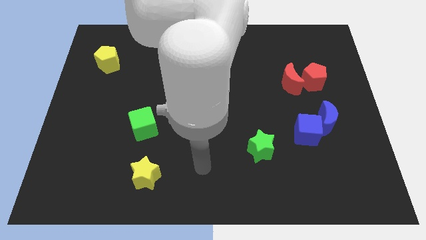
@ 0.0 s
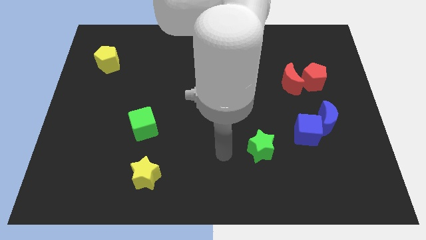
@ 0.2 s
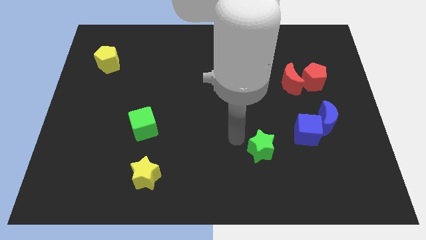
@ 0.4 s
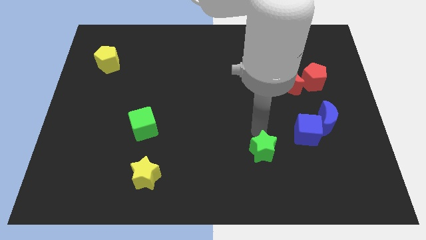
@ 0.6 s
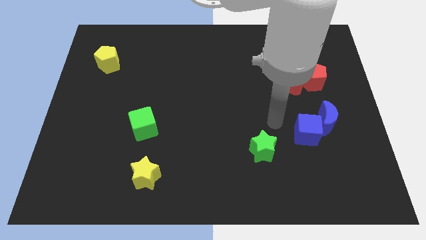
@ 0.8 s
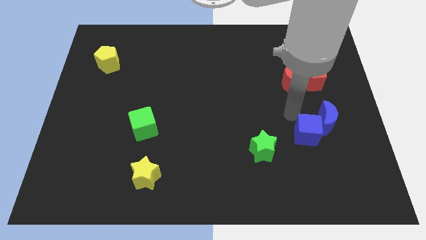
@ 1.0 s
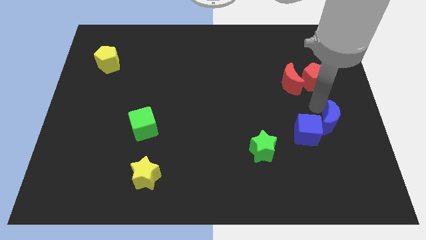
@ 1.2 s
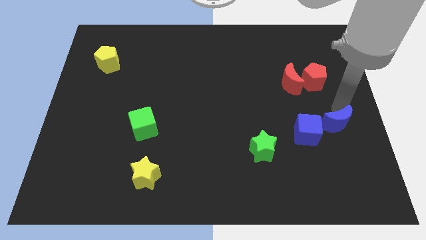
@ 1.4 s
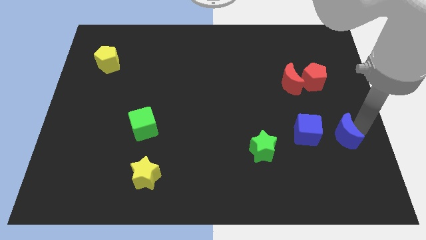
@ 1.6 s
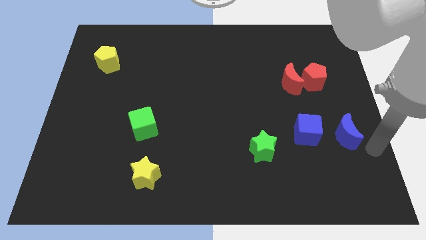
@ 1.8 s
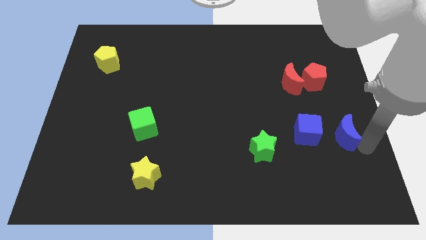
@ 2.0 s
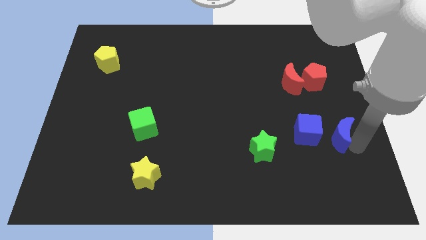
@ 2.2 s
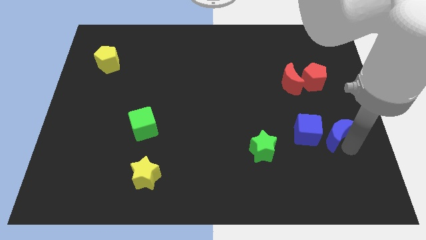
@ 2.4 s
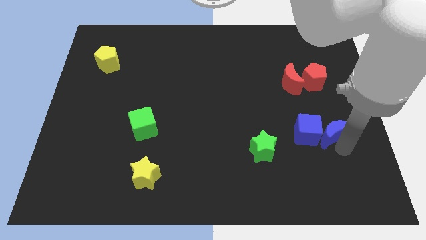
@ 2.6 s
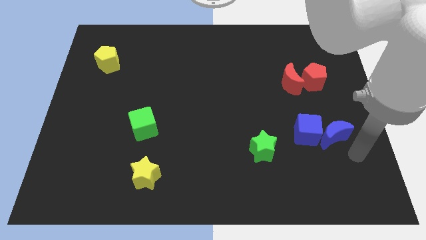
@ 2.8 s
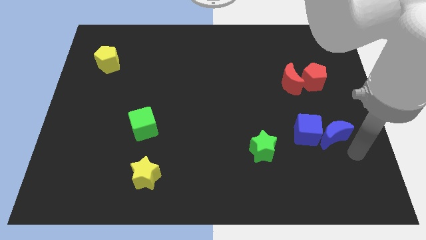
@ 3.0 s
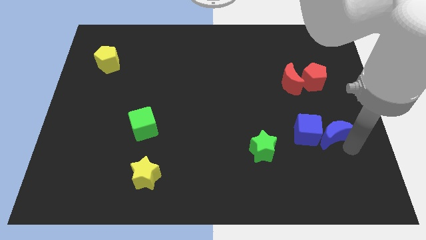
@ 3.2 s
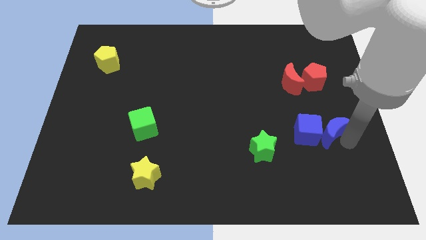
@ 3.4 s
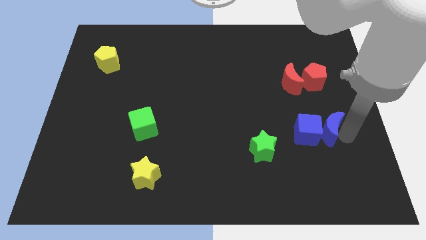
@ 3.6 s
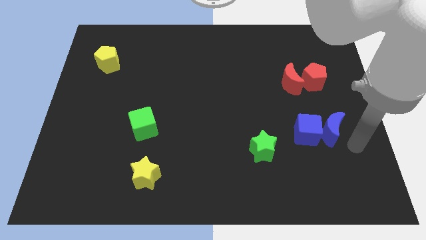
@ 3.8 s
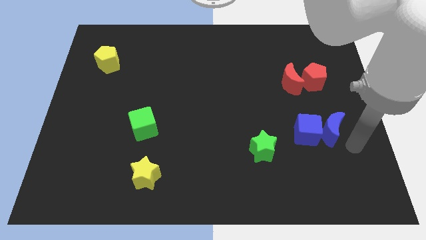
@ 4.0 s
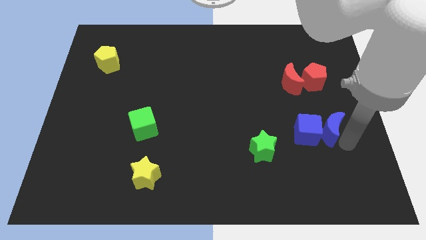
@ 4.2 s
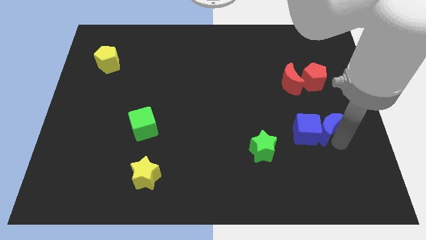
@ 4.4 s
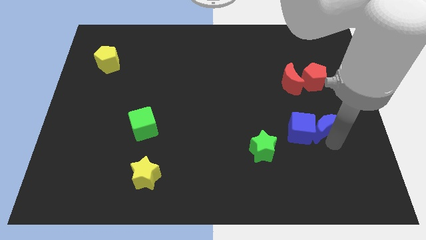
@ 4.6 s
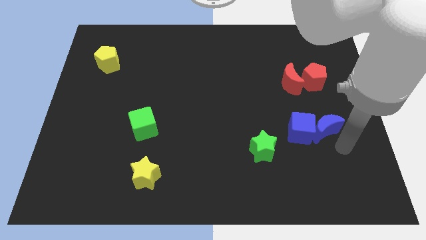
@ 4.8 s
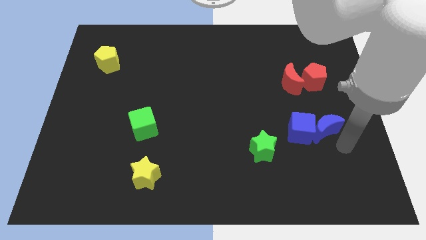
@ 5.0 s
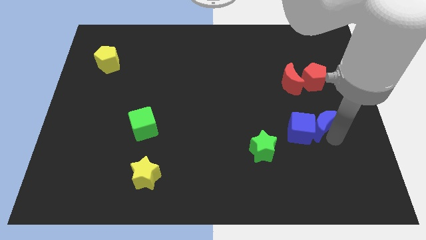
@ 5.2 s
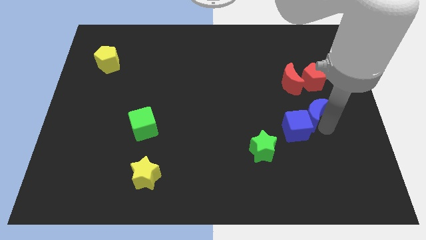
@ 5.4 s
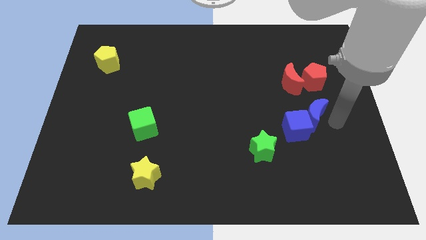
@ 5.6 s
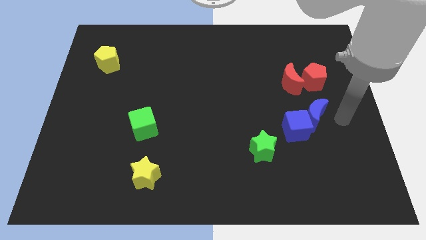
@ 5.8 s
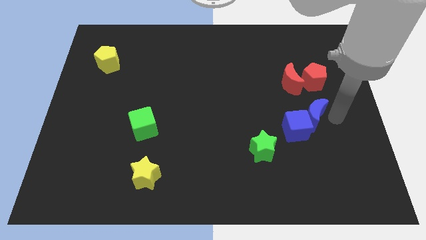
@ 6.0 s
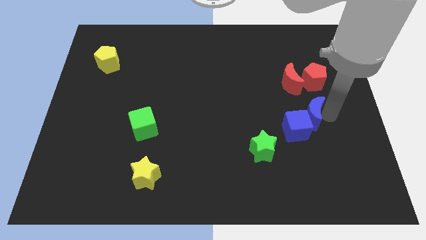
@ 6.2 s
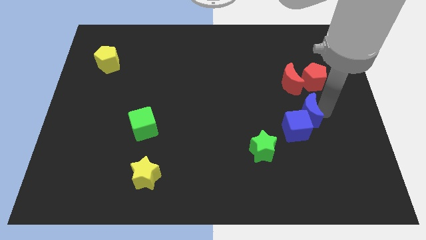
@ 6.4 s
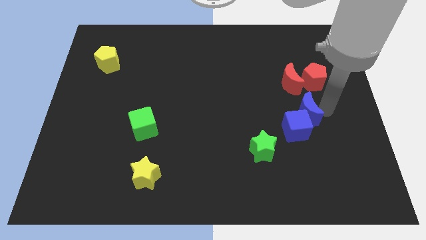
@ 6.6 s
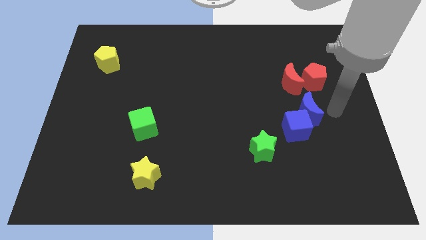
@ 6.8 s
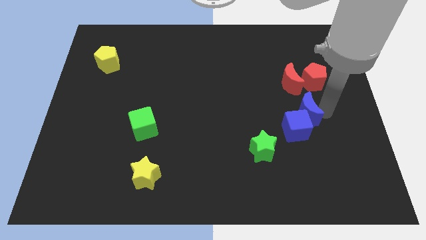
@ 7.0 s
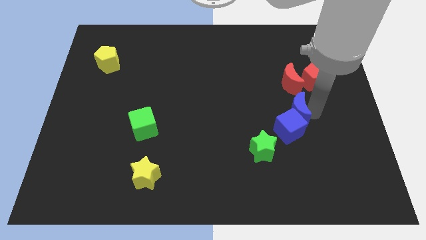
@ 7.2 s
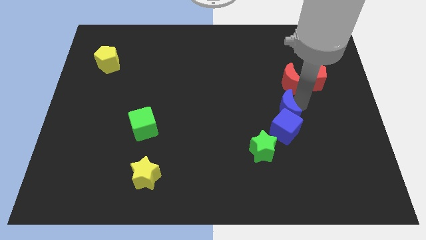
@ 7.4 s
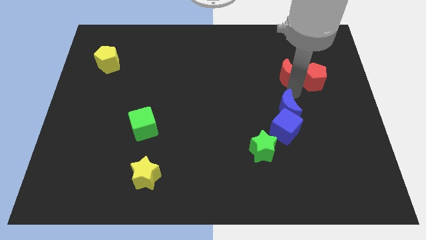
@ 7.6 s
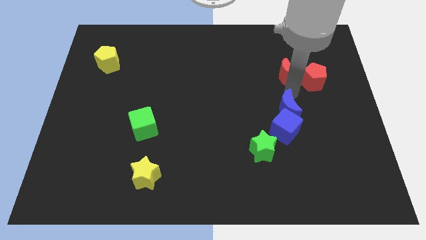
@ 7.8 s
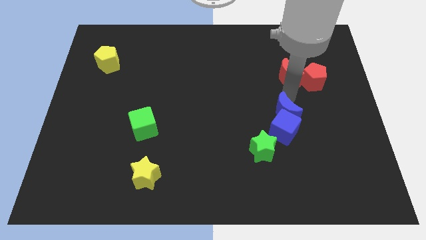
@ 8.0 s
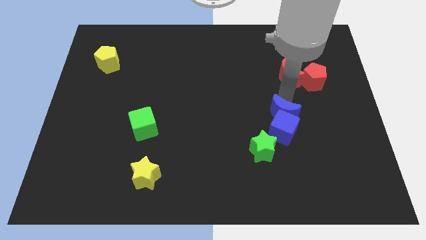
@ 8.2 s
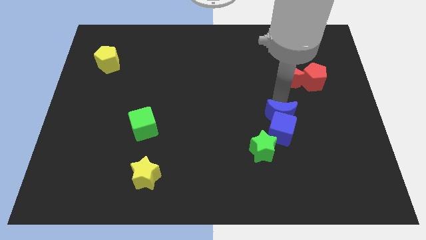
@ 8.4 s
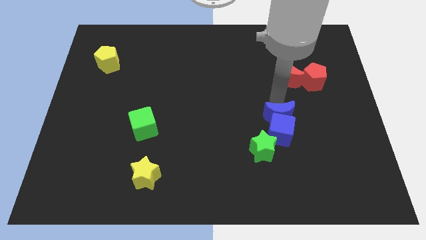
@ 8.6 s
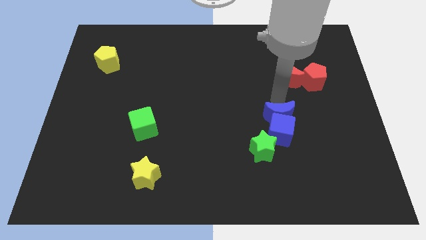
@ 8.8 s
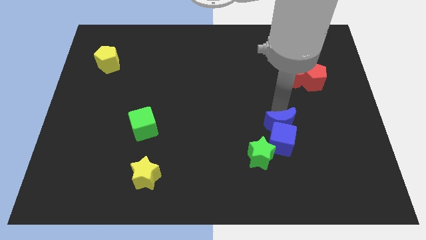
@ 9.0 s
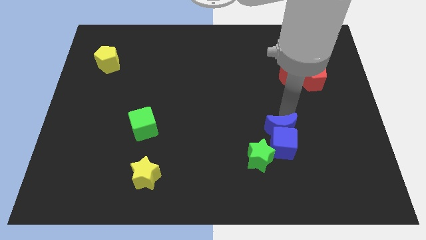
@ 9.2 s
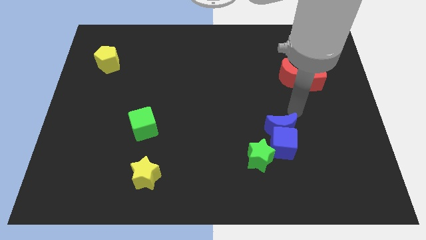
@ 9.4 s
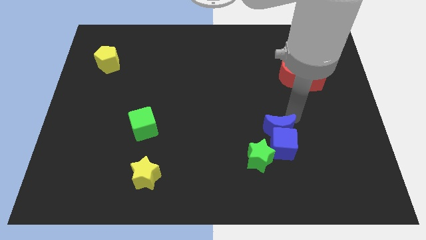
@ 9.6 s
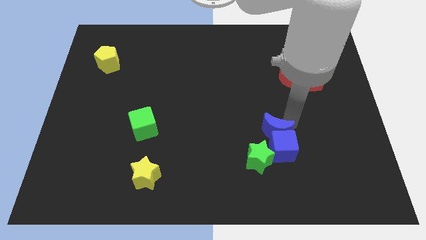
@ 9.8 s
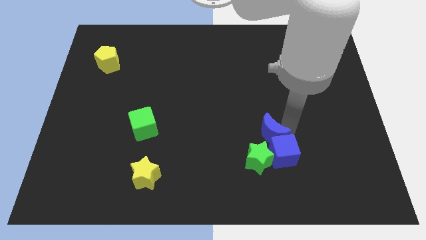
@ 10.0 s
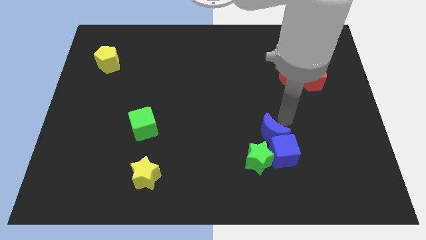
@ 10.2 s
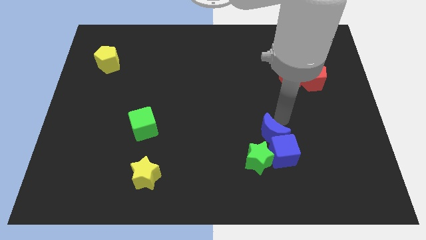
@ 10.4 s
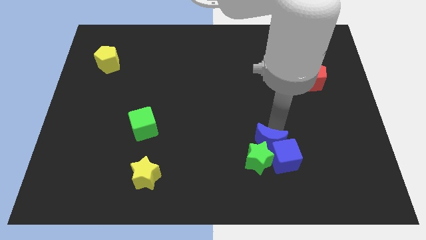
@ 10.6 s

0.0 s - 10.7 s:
put the blue moon to the green star

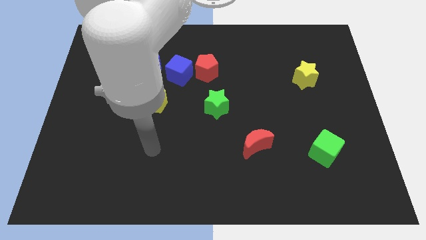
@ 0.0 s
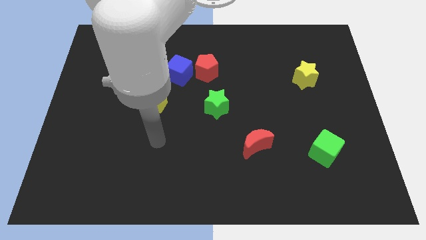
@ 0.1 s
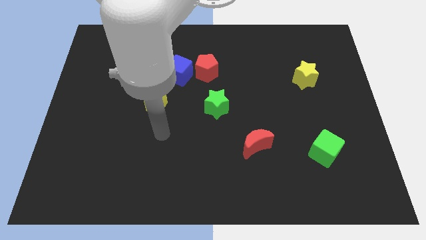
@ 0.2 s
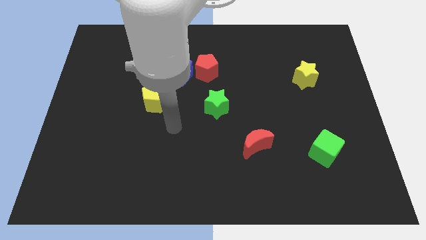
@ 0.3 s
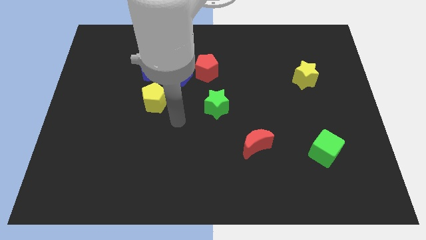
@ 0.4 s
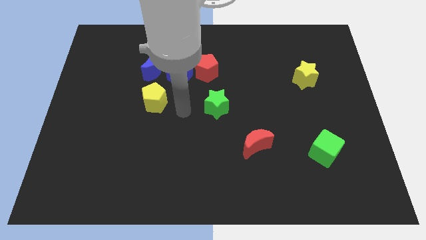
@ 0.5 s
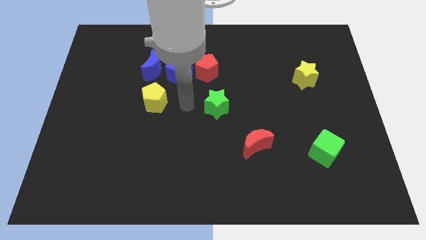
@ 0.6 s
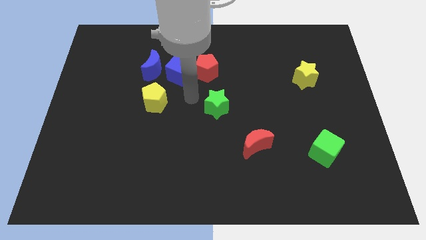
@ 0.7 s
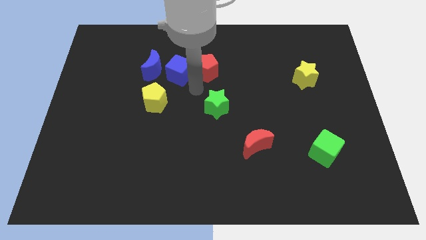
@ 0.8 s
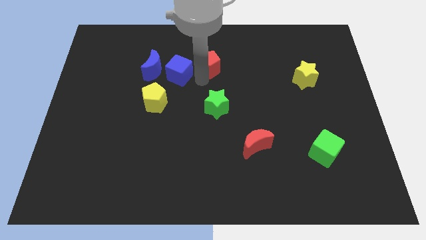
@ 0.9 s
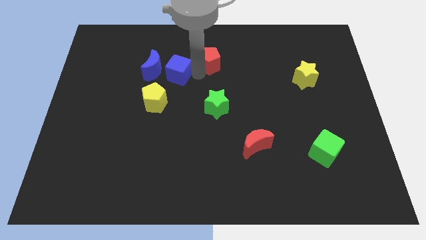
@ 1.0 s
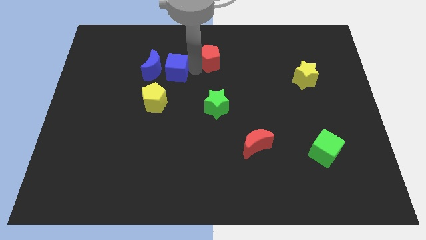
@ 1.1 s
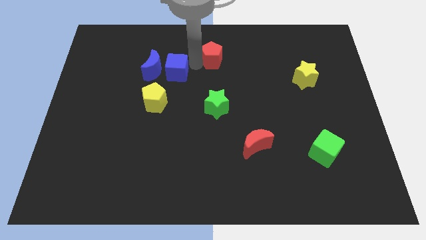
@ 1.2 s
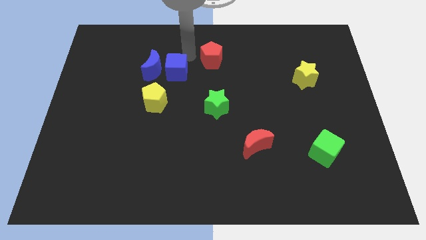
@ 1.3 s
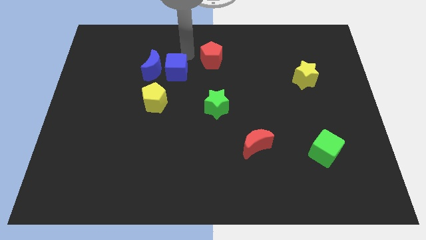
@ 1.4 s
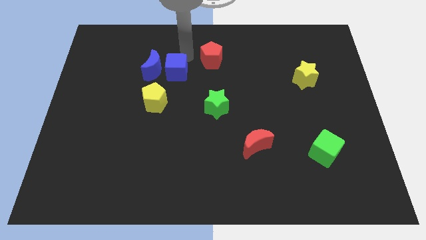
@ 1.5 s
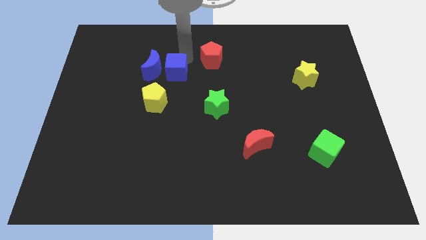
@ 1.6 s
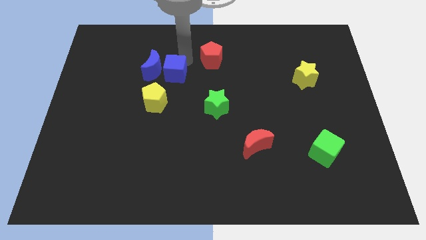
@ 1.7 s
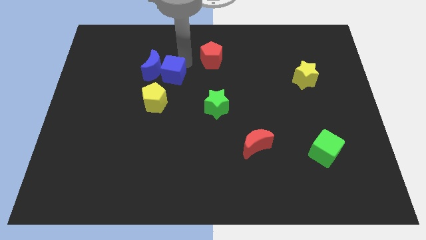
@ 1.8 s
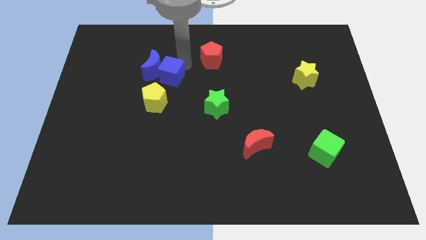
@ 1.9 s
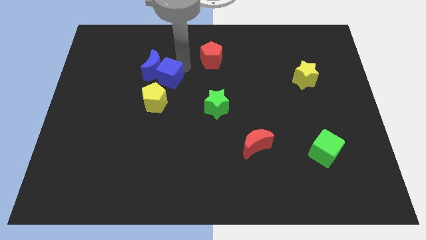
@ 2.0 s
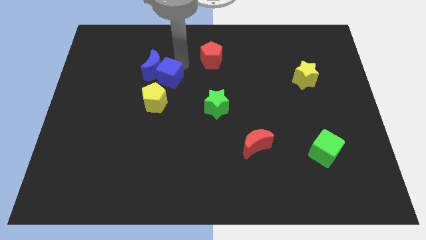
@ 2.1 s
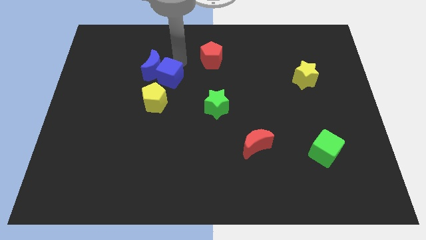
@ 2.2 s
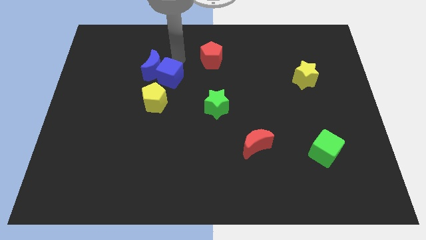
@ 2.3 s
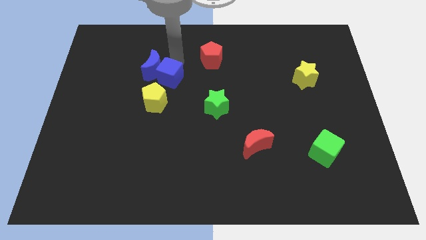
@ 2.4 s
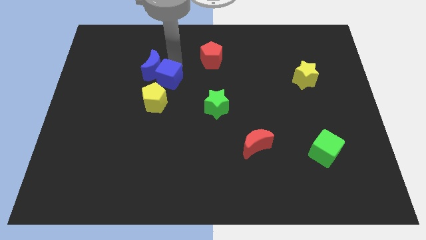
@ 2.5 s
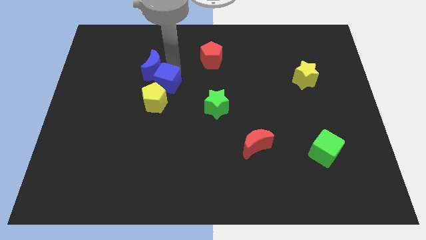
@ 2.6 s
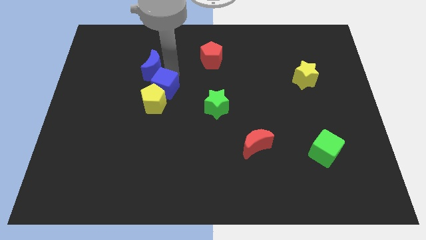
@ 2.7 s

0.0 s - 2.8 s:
push the blue cube next to the yellow pentagon
